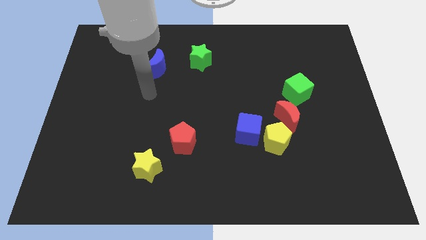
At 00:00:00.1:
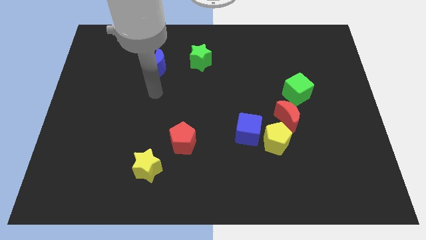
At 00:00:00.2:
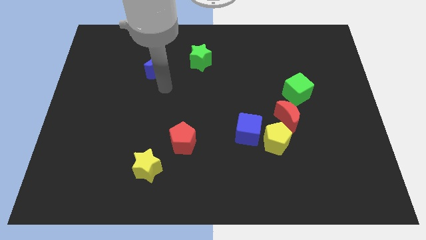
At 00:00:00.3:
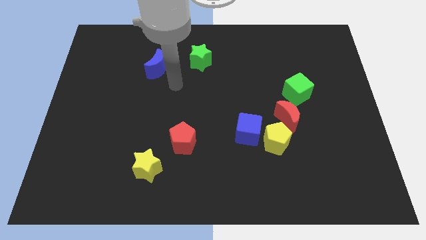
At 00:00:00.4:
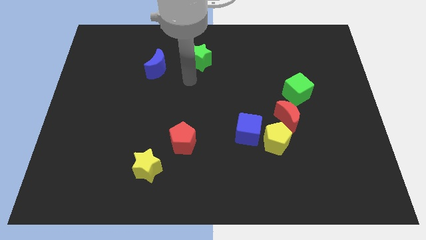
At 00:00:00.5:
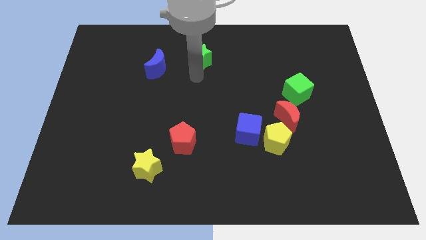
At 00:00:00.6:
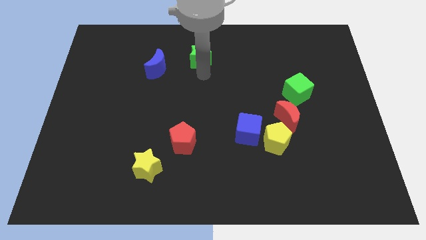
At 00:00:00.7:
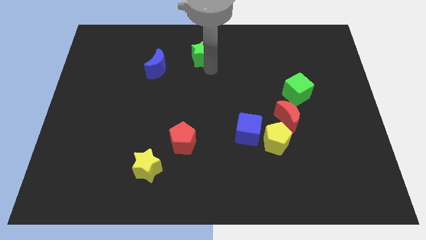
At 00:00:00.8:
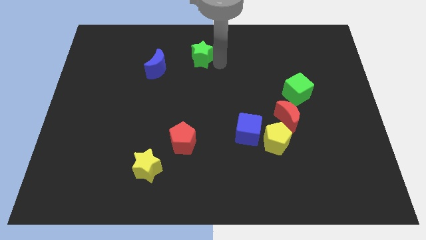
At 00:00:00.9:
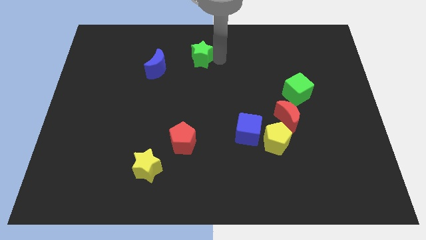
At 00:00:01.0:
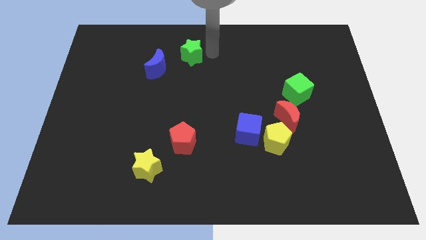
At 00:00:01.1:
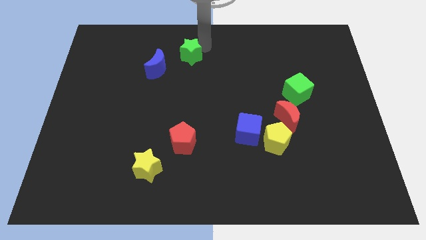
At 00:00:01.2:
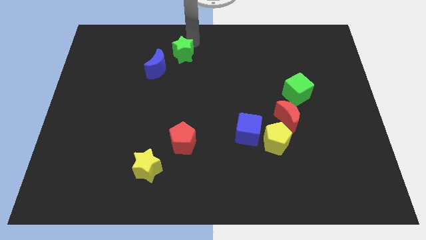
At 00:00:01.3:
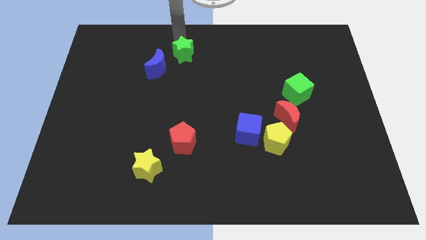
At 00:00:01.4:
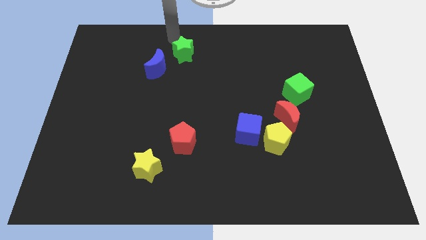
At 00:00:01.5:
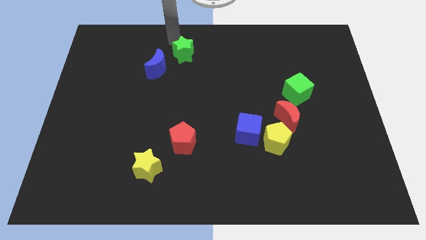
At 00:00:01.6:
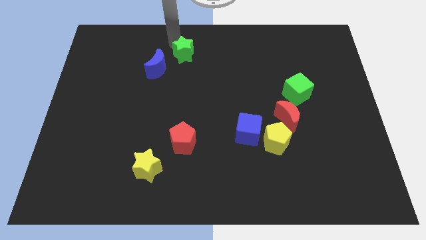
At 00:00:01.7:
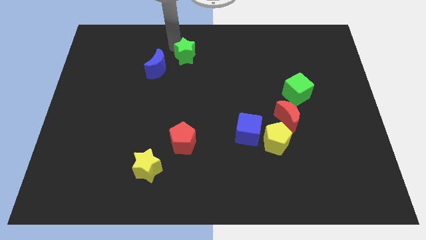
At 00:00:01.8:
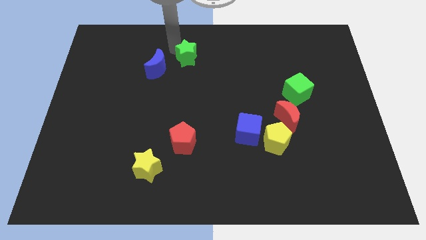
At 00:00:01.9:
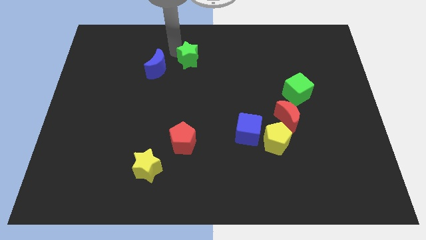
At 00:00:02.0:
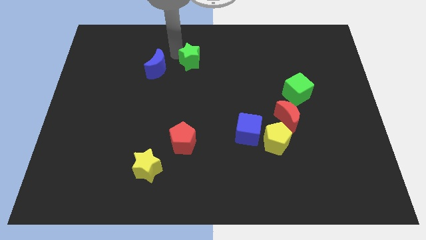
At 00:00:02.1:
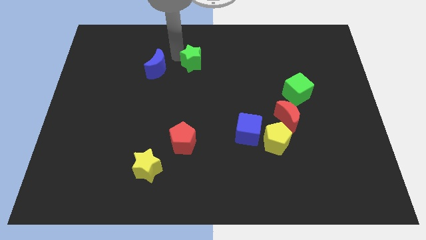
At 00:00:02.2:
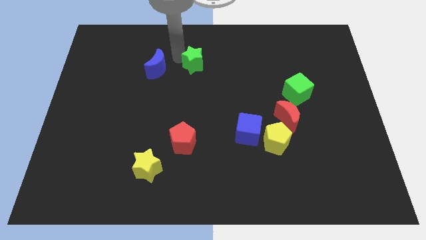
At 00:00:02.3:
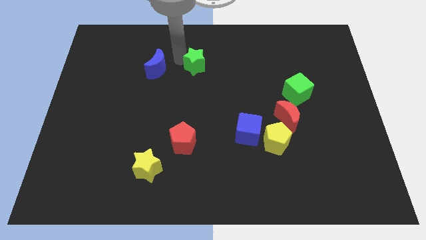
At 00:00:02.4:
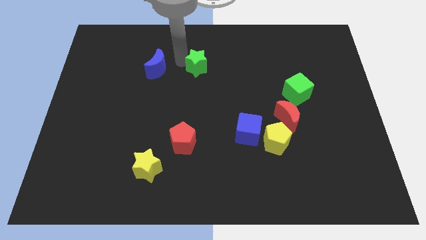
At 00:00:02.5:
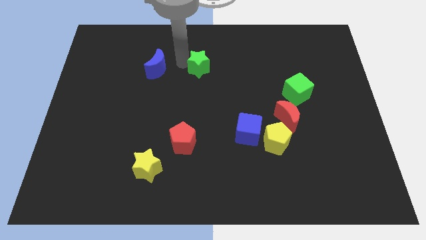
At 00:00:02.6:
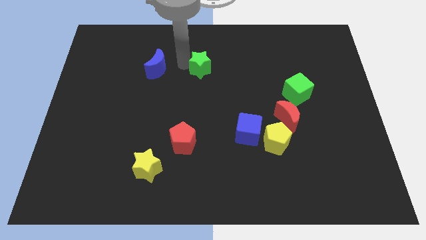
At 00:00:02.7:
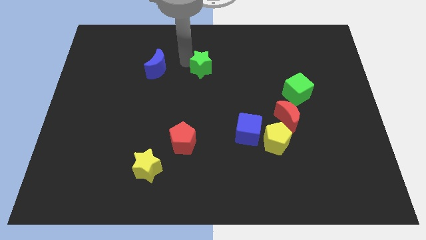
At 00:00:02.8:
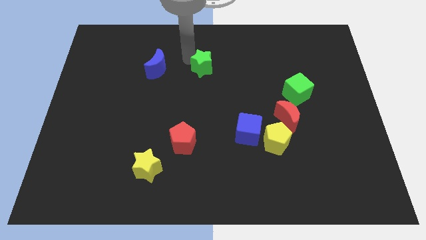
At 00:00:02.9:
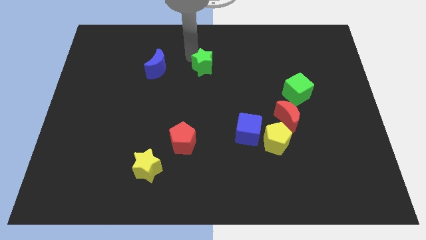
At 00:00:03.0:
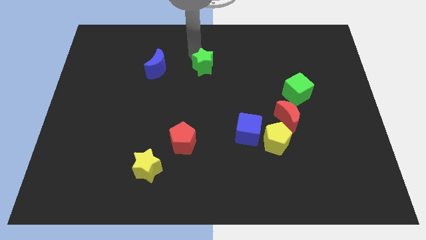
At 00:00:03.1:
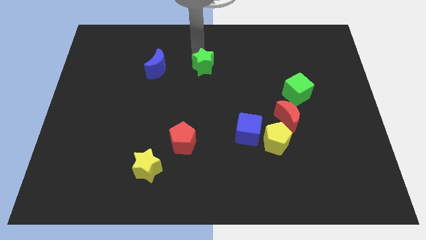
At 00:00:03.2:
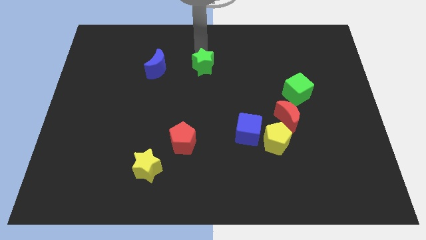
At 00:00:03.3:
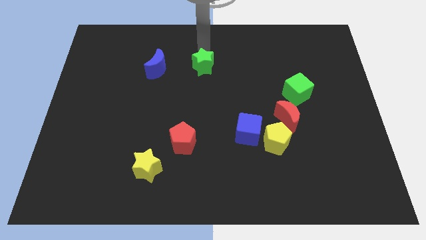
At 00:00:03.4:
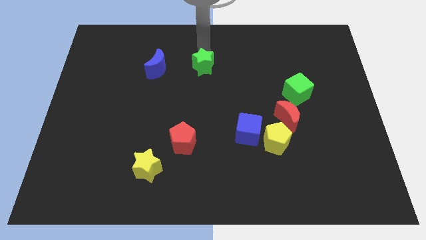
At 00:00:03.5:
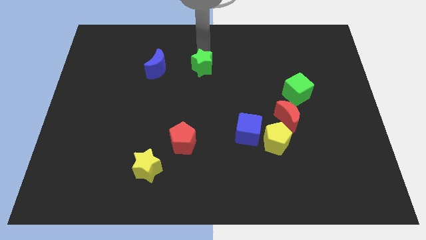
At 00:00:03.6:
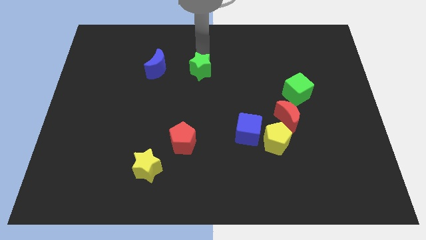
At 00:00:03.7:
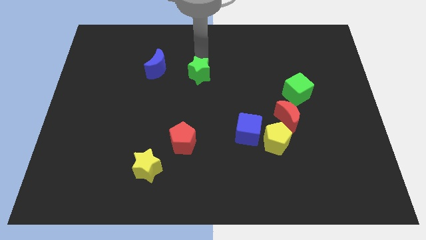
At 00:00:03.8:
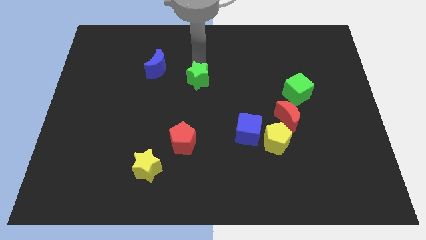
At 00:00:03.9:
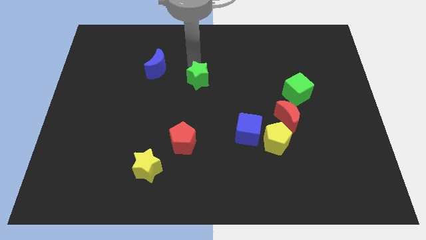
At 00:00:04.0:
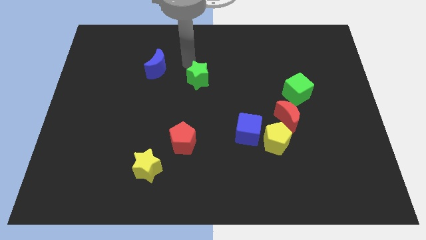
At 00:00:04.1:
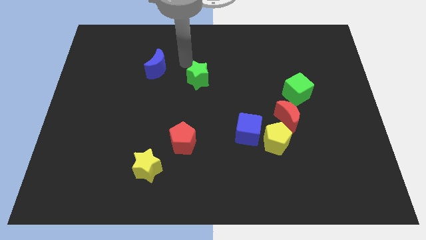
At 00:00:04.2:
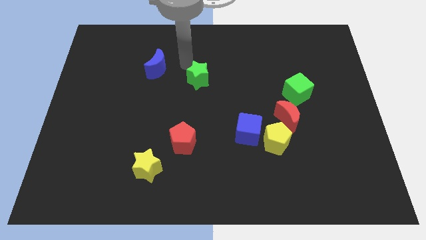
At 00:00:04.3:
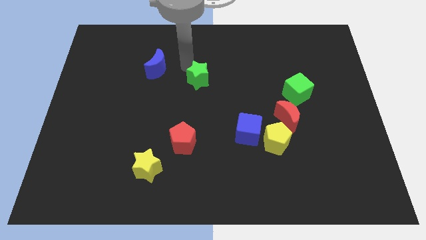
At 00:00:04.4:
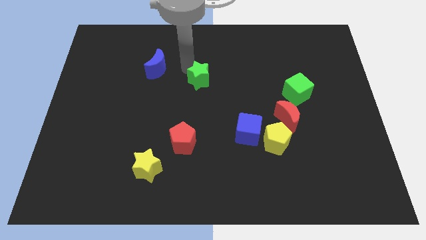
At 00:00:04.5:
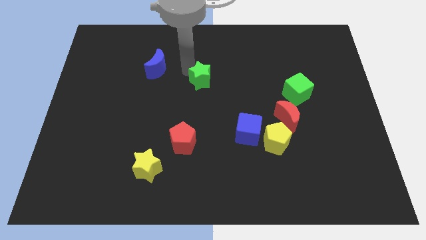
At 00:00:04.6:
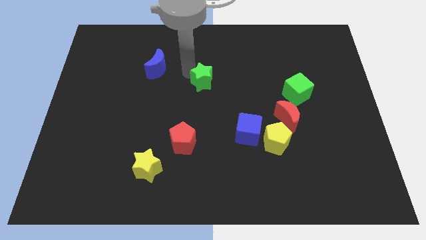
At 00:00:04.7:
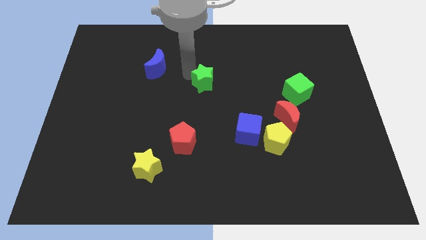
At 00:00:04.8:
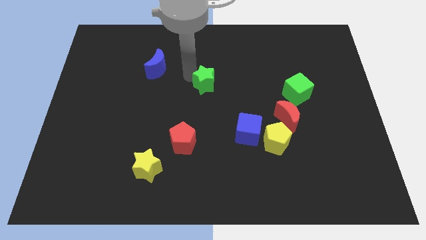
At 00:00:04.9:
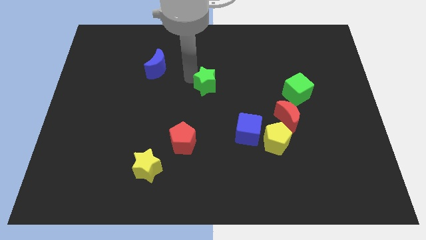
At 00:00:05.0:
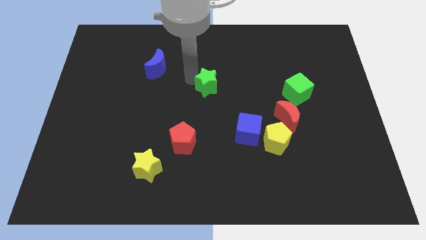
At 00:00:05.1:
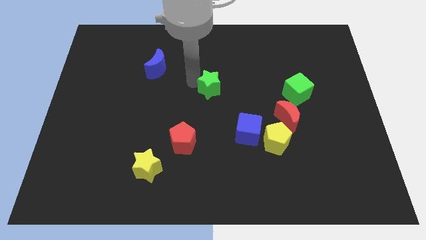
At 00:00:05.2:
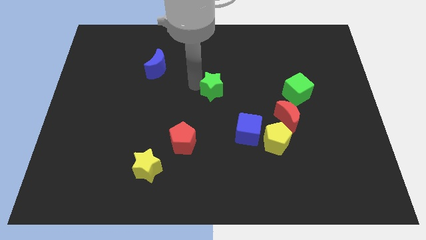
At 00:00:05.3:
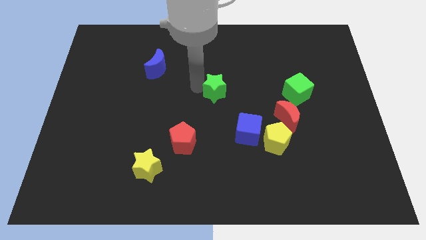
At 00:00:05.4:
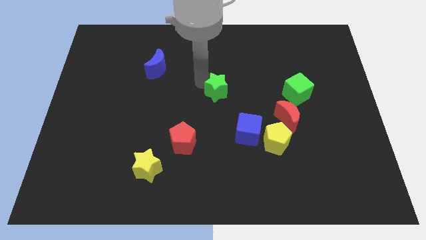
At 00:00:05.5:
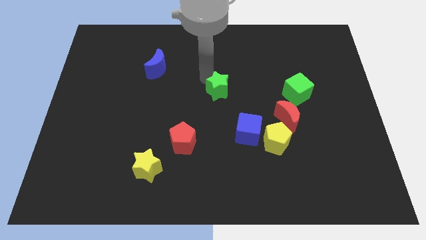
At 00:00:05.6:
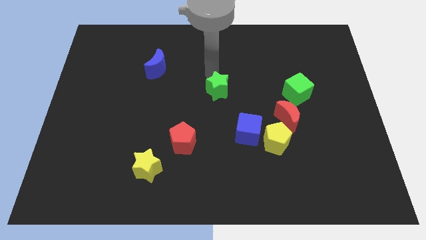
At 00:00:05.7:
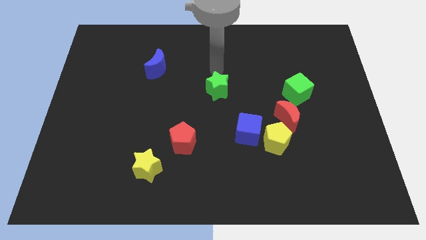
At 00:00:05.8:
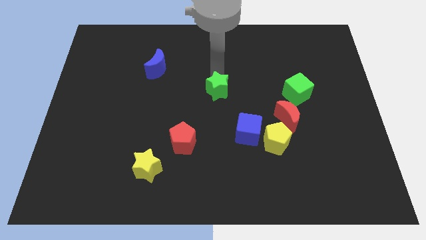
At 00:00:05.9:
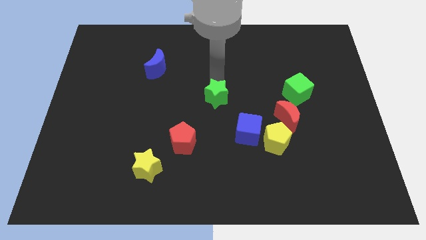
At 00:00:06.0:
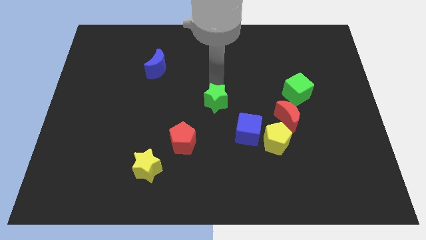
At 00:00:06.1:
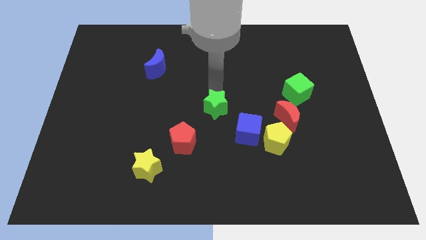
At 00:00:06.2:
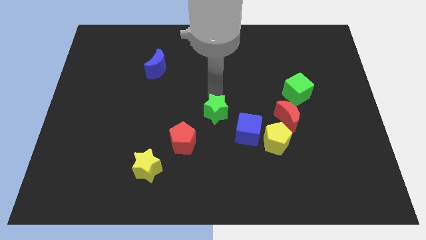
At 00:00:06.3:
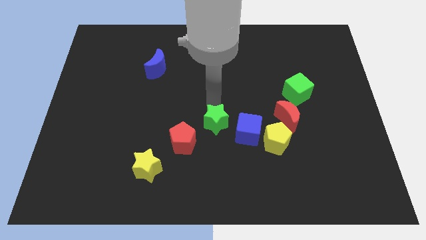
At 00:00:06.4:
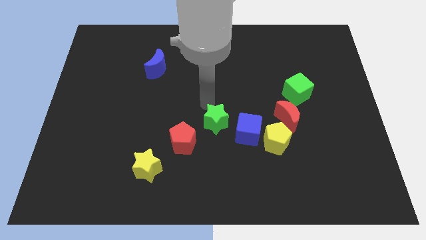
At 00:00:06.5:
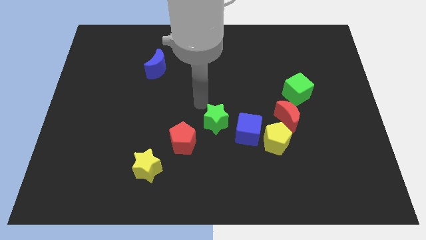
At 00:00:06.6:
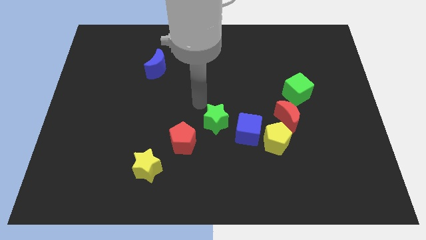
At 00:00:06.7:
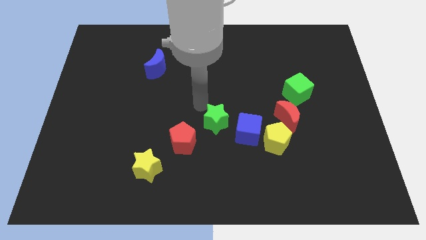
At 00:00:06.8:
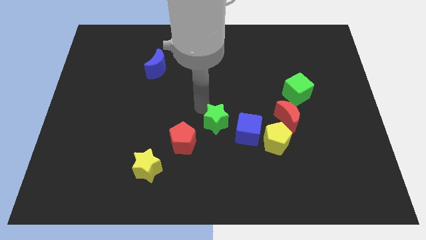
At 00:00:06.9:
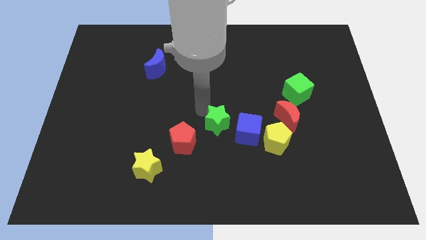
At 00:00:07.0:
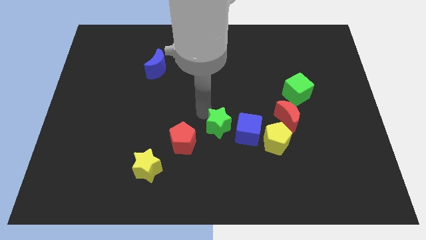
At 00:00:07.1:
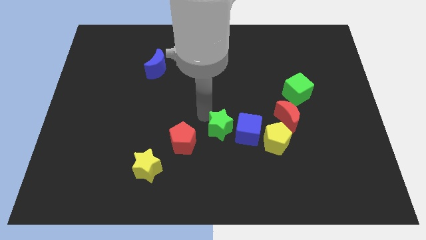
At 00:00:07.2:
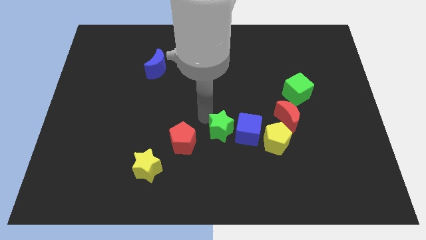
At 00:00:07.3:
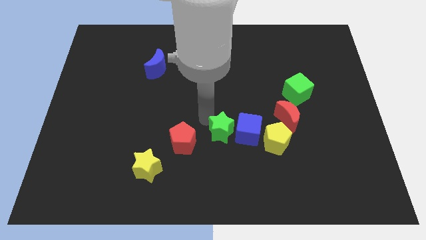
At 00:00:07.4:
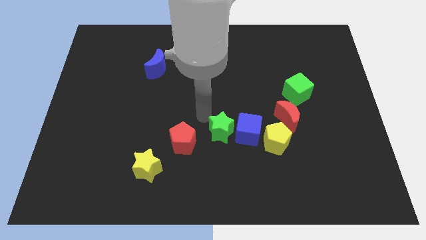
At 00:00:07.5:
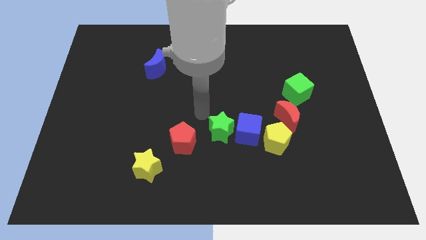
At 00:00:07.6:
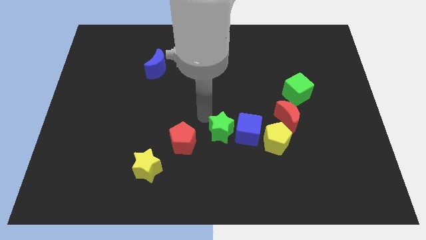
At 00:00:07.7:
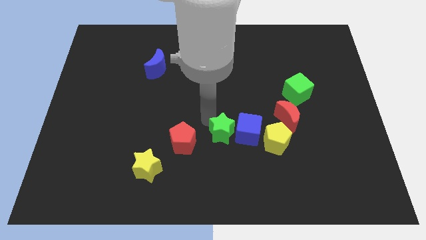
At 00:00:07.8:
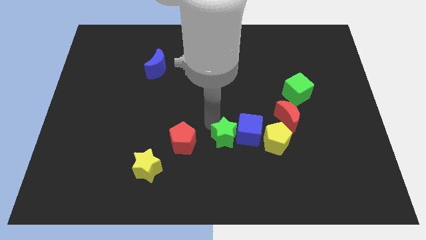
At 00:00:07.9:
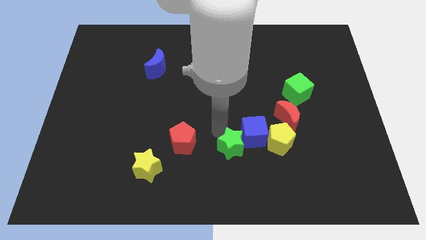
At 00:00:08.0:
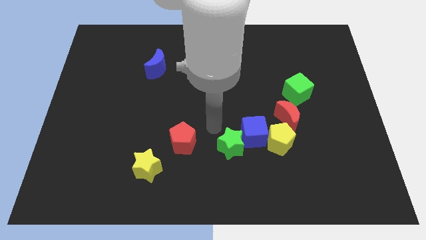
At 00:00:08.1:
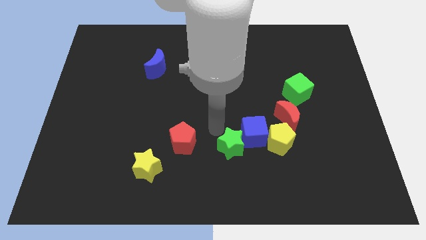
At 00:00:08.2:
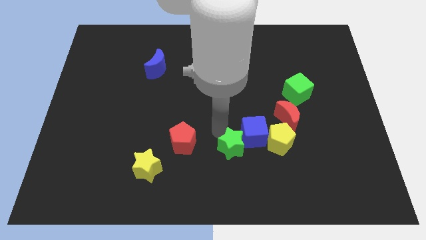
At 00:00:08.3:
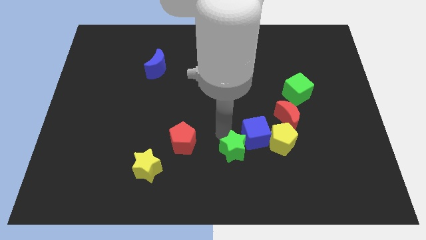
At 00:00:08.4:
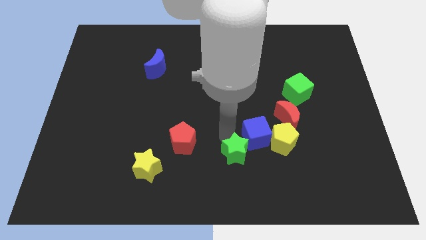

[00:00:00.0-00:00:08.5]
move the green star to the bottom of the blue cube
